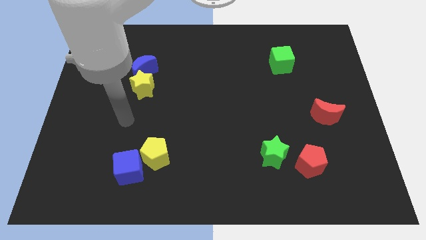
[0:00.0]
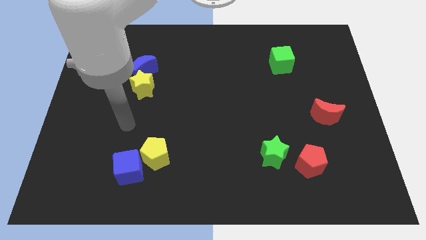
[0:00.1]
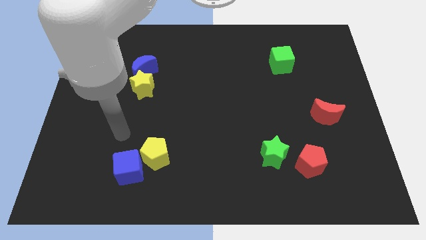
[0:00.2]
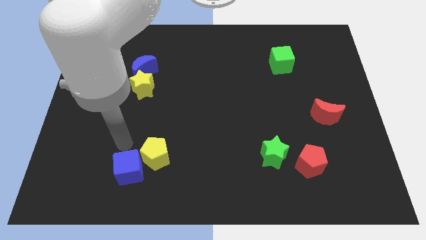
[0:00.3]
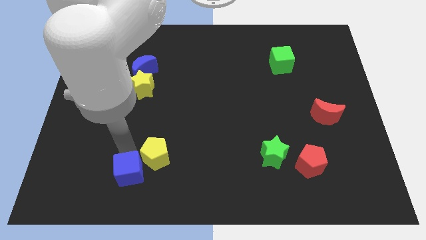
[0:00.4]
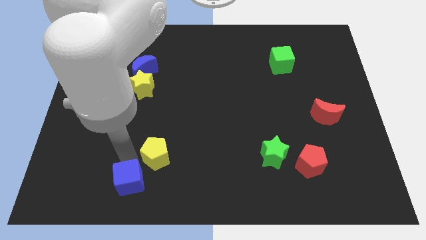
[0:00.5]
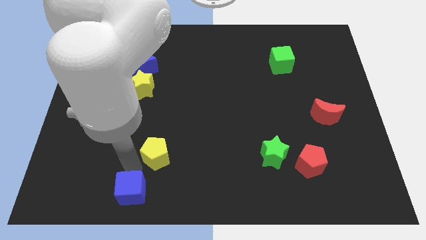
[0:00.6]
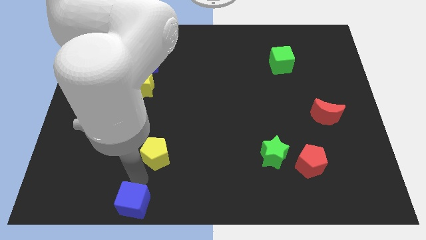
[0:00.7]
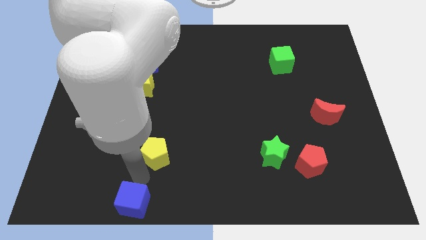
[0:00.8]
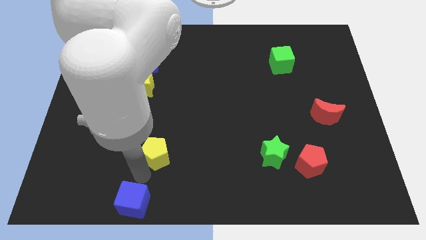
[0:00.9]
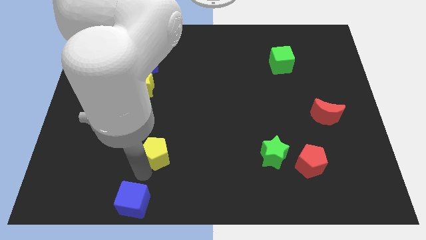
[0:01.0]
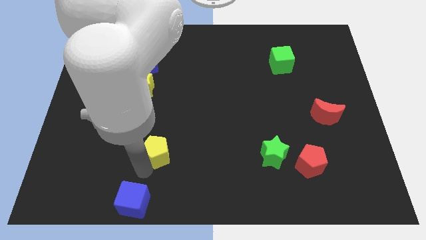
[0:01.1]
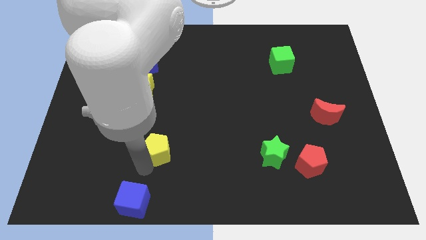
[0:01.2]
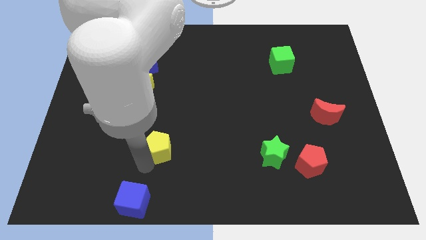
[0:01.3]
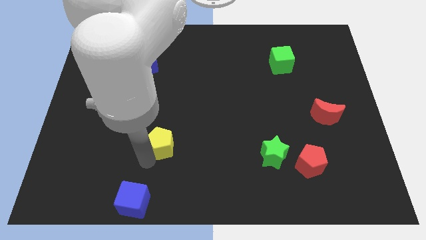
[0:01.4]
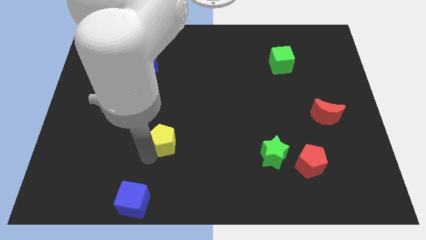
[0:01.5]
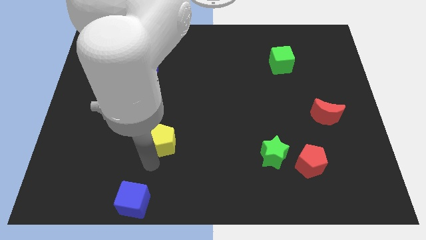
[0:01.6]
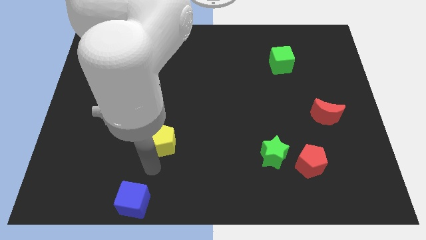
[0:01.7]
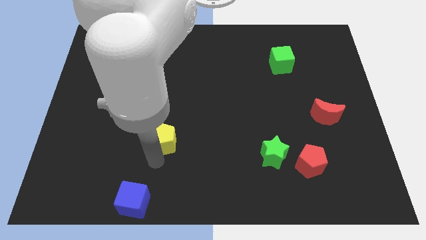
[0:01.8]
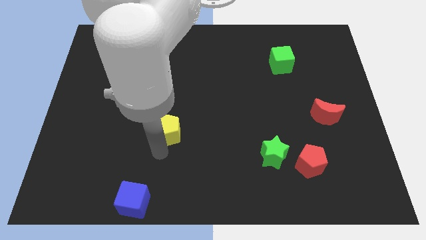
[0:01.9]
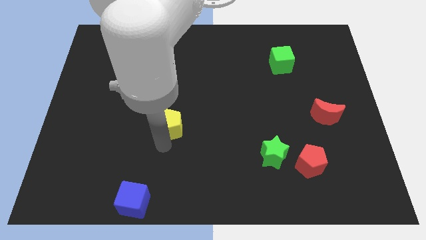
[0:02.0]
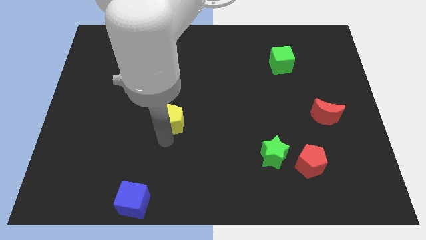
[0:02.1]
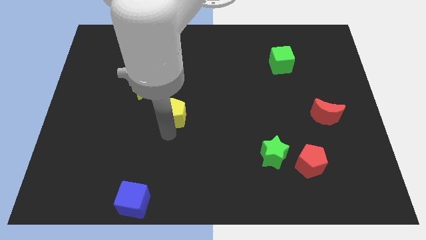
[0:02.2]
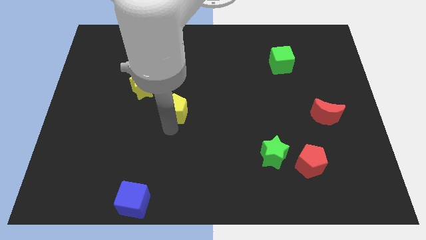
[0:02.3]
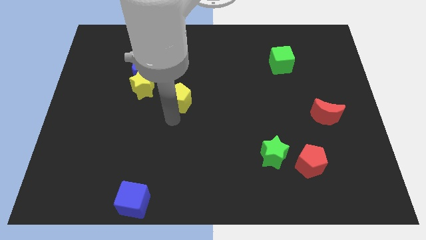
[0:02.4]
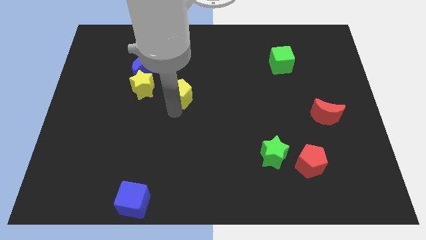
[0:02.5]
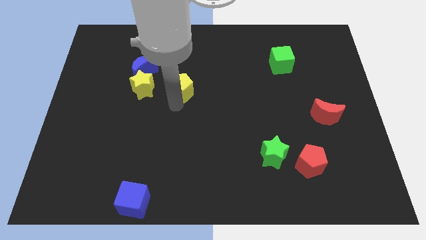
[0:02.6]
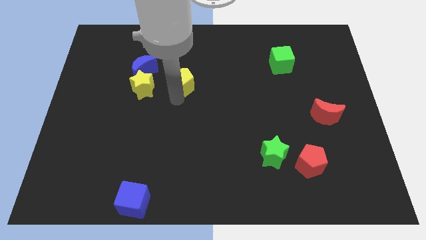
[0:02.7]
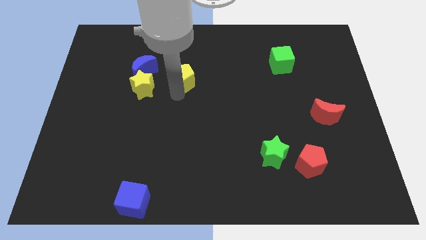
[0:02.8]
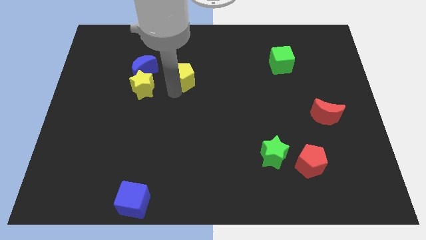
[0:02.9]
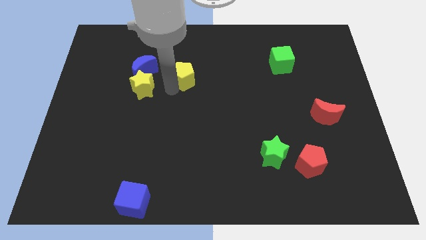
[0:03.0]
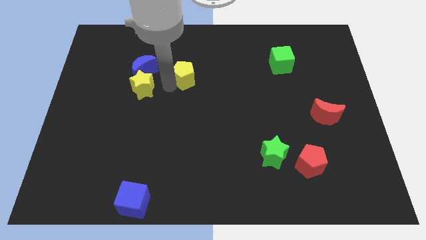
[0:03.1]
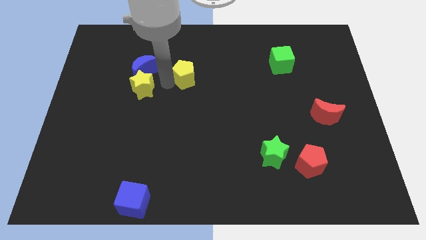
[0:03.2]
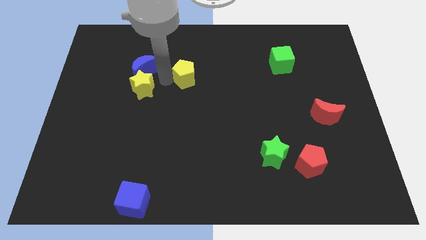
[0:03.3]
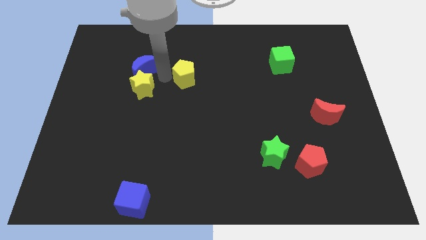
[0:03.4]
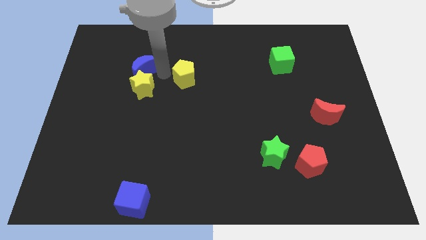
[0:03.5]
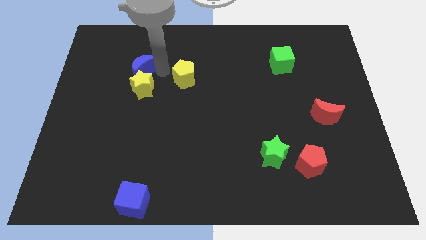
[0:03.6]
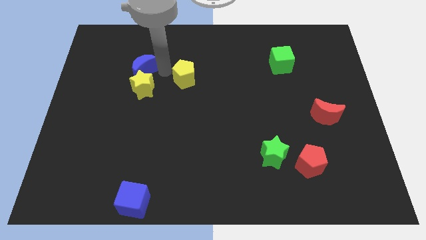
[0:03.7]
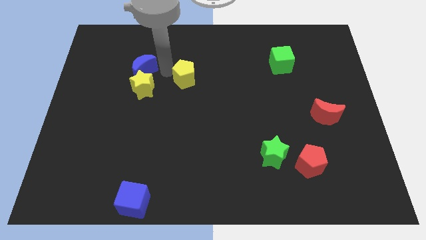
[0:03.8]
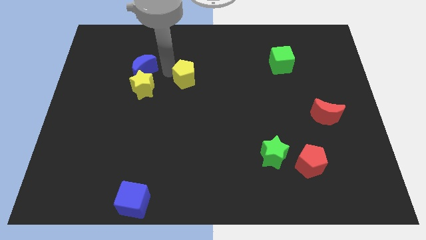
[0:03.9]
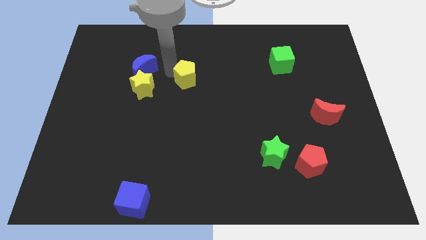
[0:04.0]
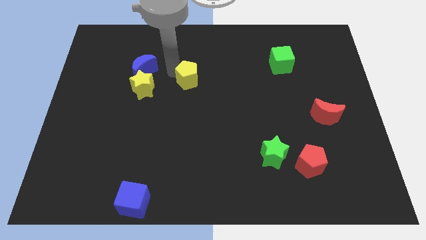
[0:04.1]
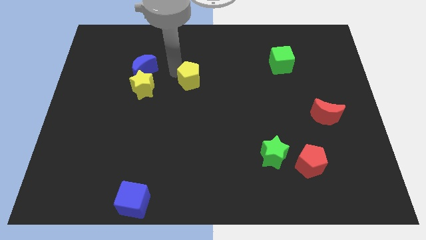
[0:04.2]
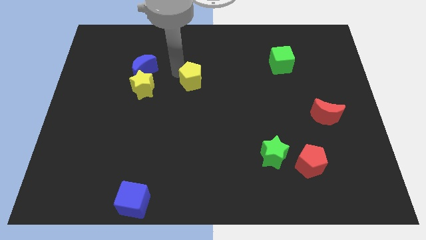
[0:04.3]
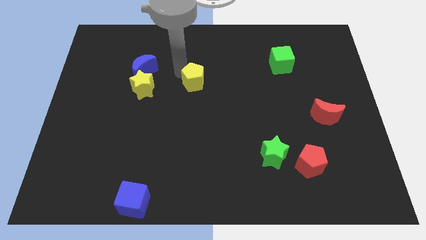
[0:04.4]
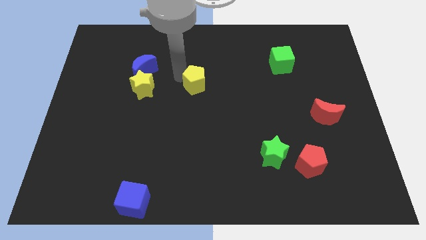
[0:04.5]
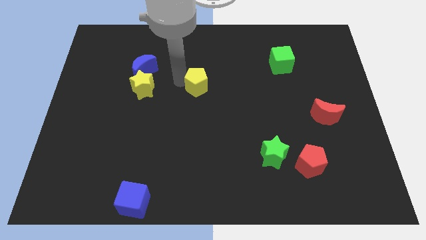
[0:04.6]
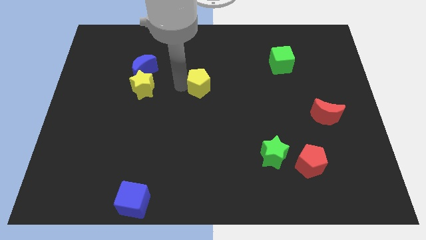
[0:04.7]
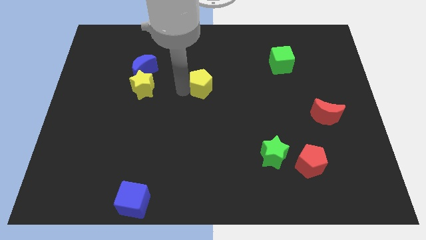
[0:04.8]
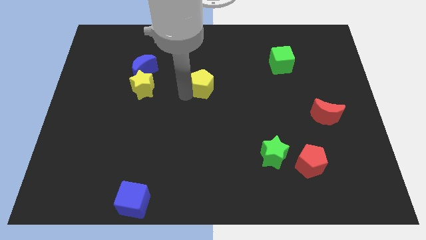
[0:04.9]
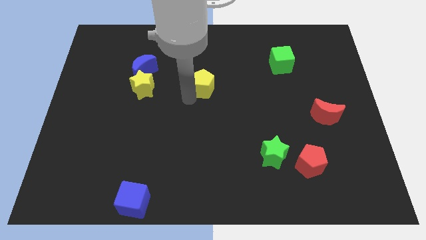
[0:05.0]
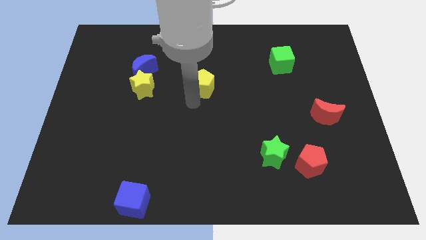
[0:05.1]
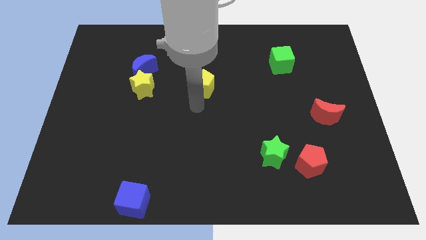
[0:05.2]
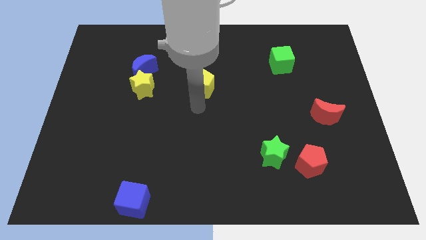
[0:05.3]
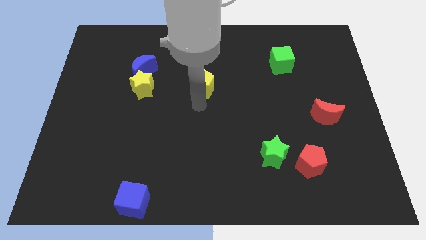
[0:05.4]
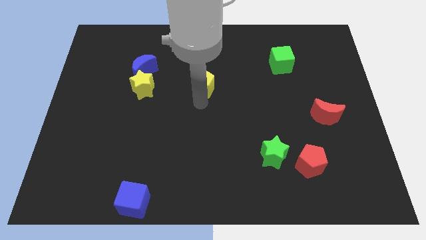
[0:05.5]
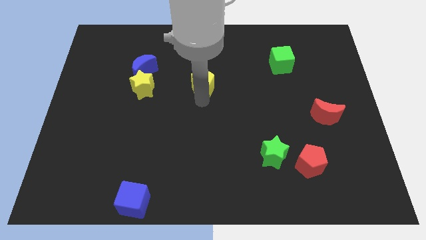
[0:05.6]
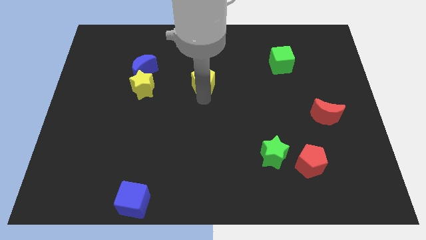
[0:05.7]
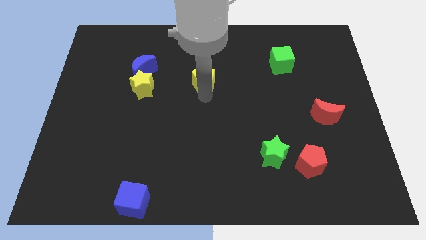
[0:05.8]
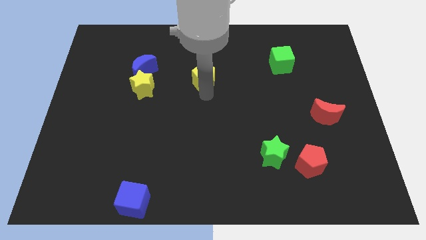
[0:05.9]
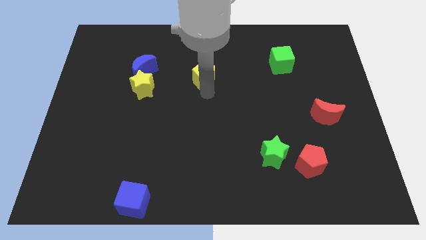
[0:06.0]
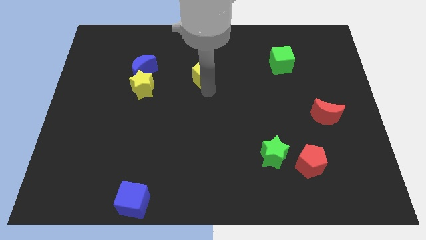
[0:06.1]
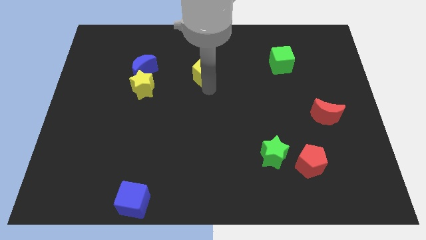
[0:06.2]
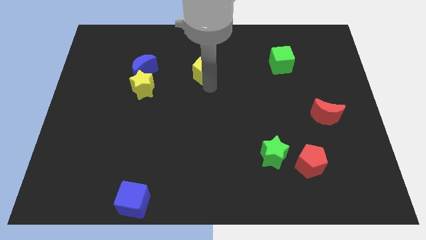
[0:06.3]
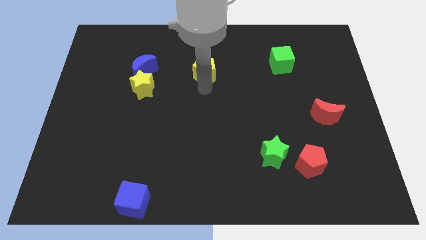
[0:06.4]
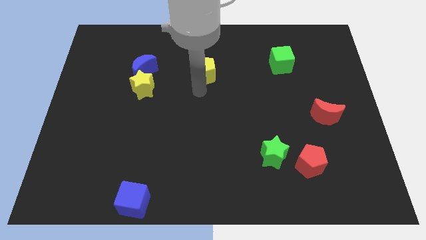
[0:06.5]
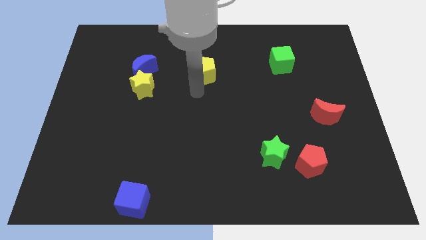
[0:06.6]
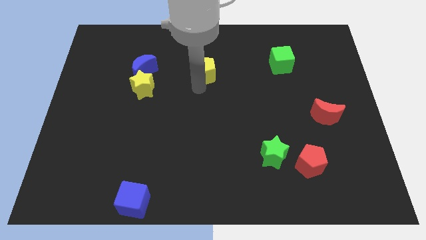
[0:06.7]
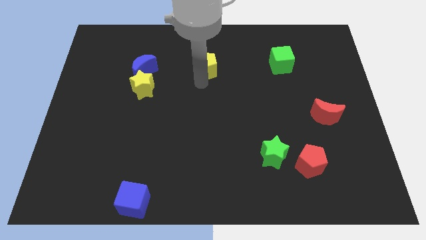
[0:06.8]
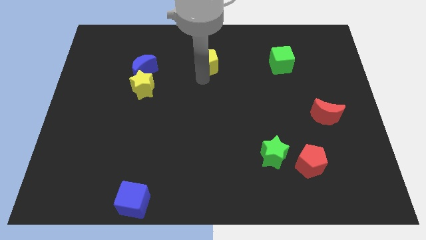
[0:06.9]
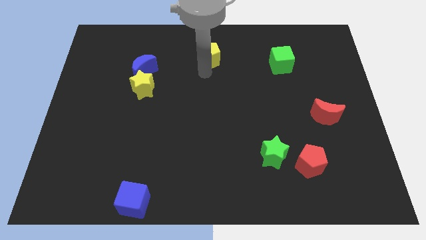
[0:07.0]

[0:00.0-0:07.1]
slide the yellow pentagon to the towards your base
